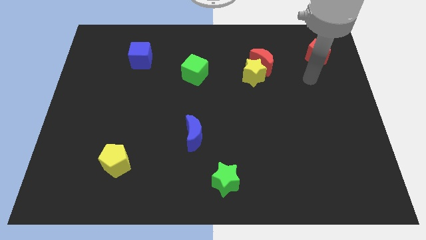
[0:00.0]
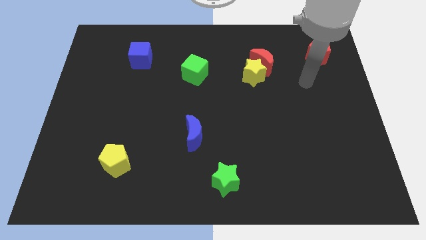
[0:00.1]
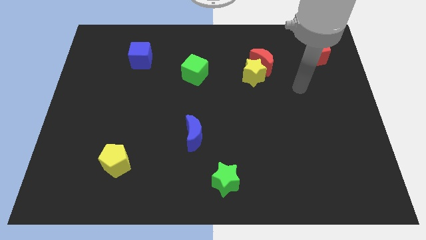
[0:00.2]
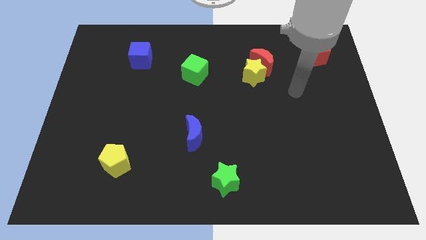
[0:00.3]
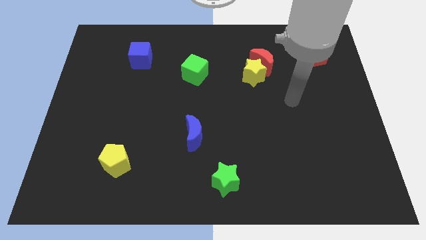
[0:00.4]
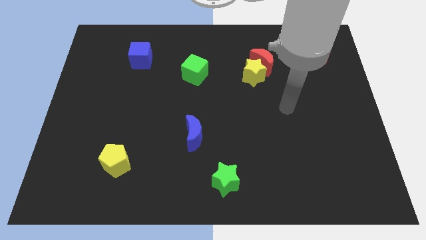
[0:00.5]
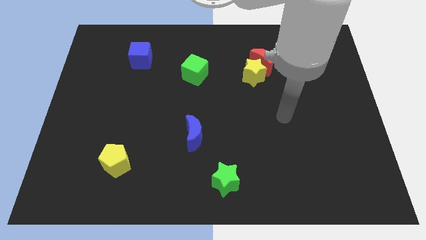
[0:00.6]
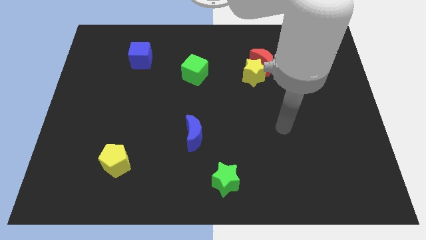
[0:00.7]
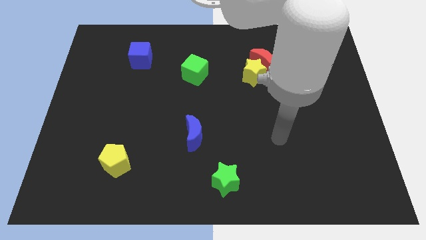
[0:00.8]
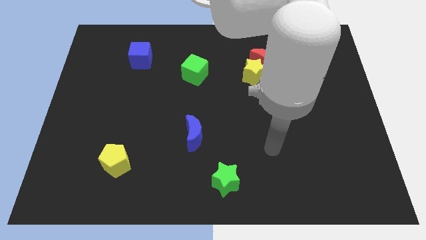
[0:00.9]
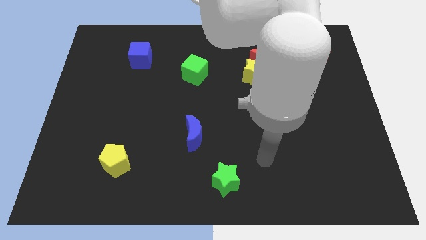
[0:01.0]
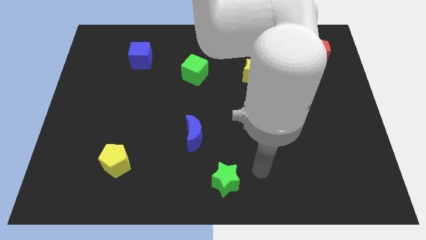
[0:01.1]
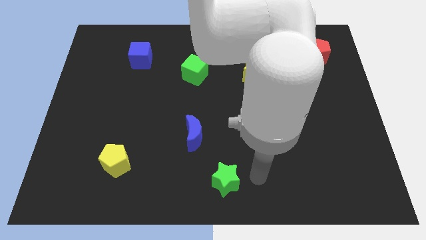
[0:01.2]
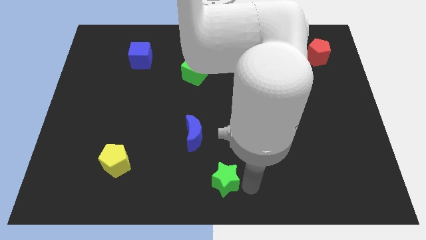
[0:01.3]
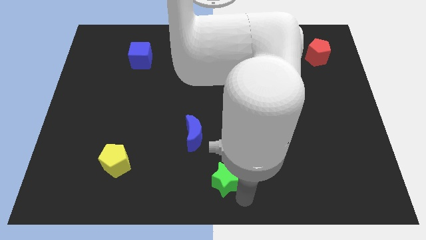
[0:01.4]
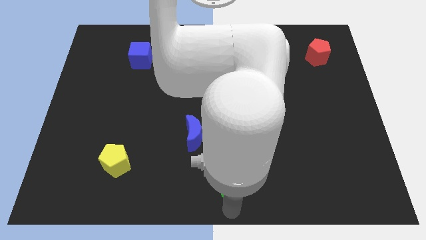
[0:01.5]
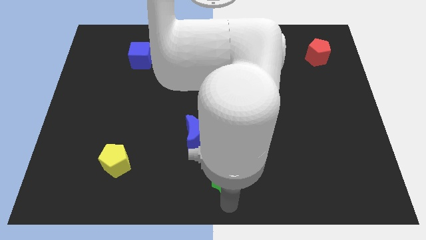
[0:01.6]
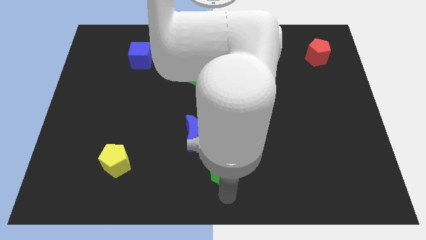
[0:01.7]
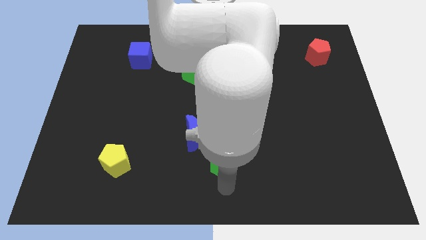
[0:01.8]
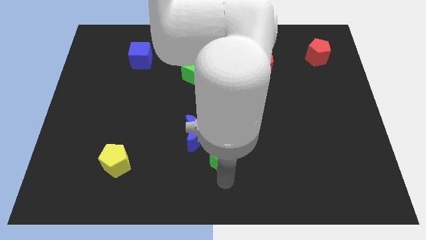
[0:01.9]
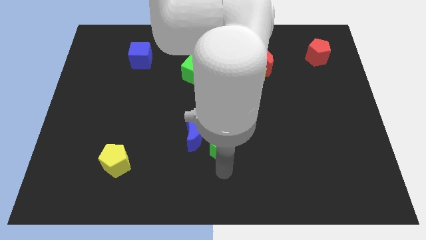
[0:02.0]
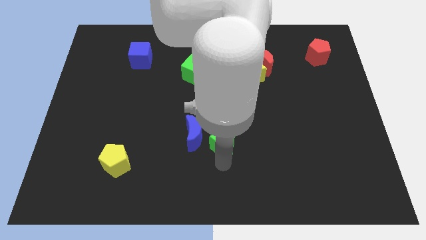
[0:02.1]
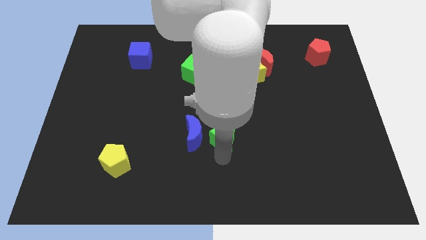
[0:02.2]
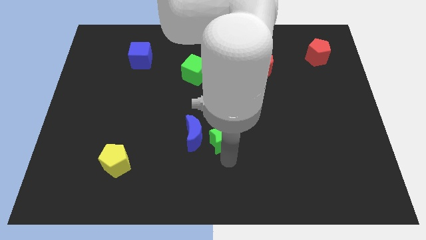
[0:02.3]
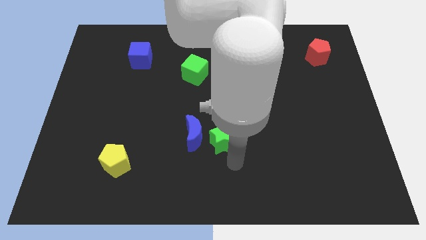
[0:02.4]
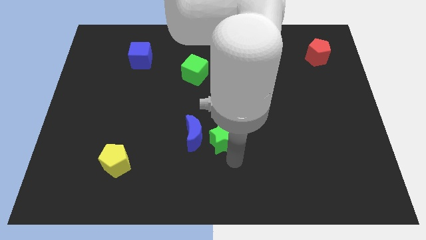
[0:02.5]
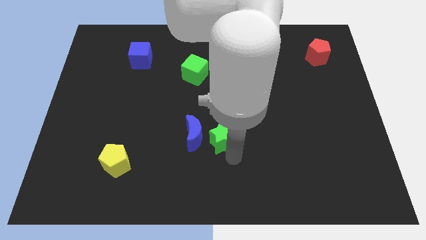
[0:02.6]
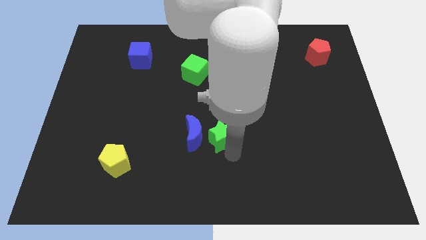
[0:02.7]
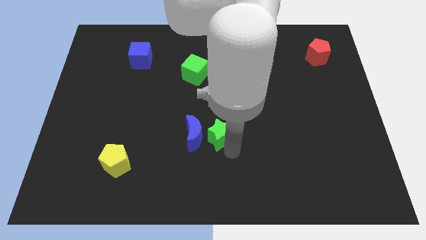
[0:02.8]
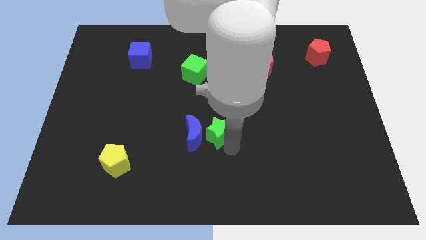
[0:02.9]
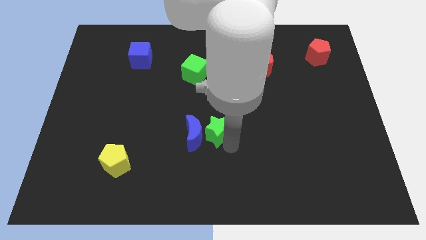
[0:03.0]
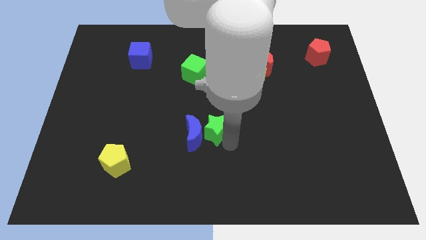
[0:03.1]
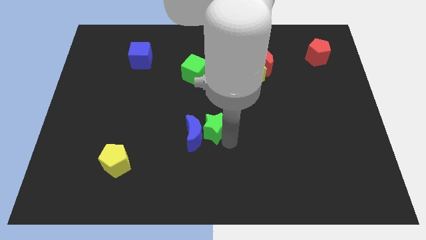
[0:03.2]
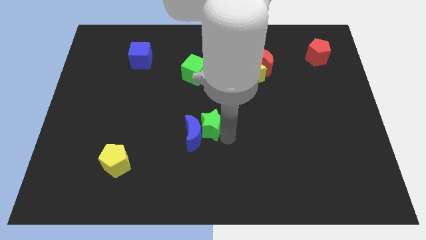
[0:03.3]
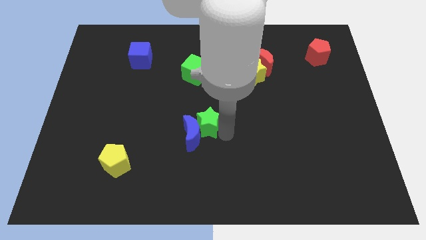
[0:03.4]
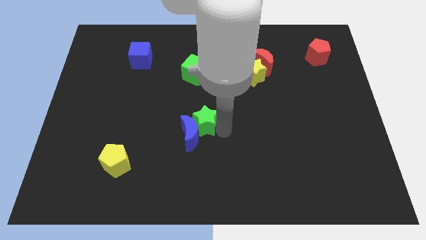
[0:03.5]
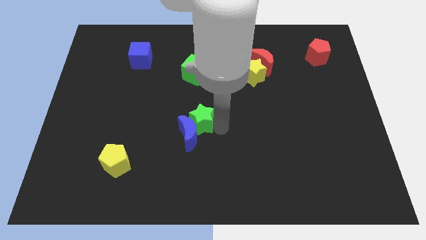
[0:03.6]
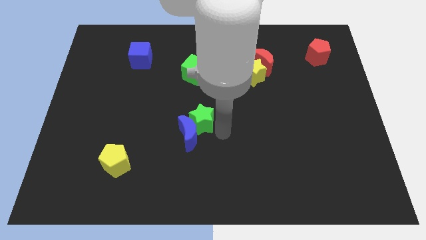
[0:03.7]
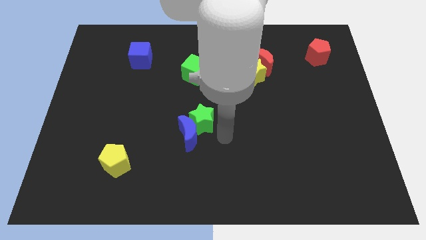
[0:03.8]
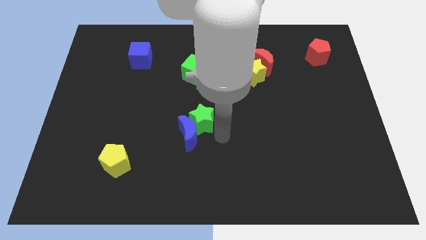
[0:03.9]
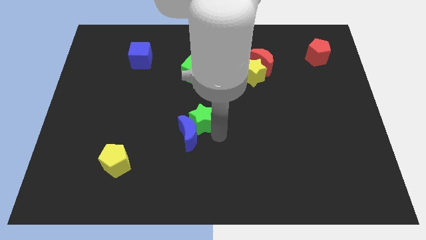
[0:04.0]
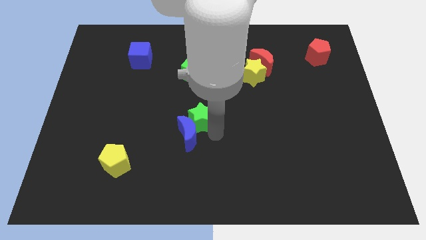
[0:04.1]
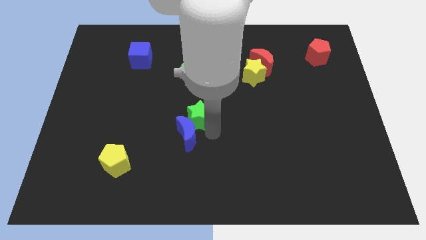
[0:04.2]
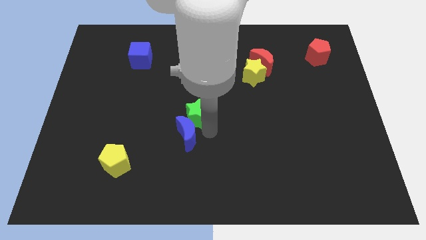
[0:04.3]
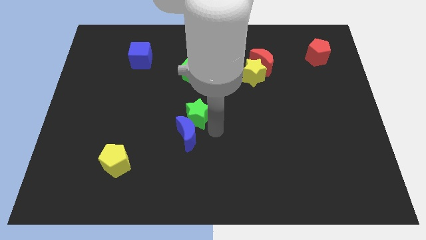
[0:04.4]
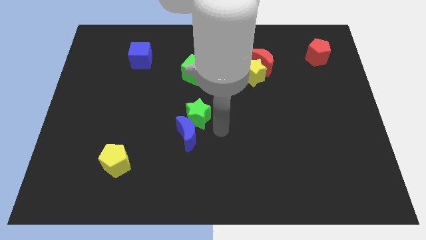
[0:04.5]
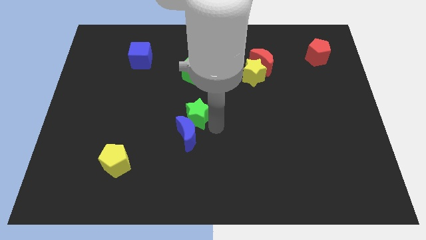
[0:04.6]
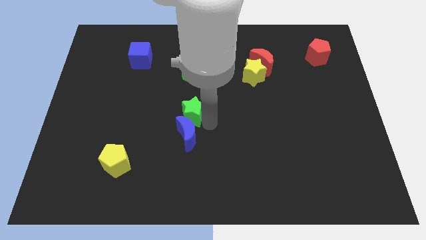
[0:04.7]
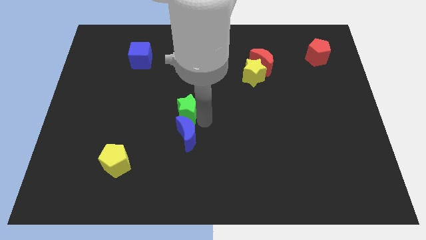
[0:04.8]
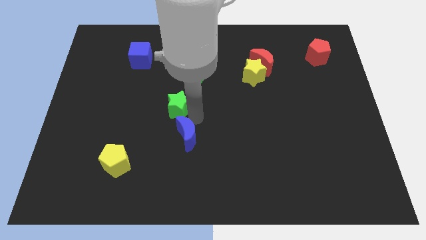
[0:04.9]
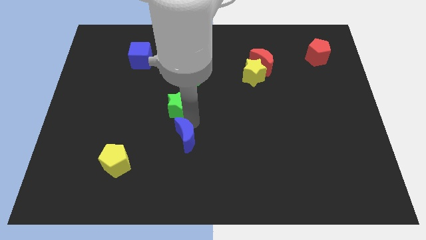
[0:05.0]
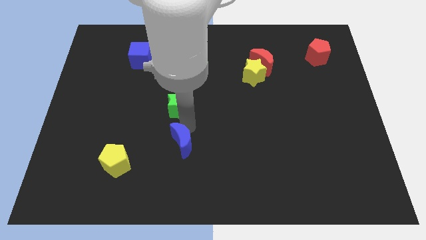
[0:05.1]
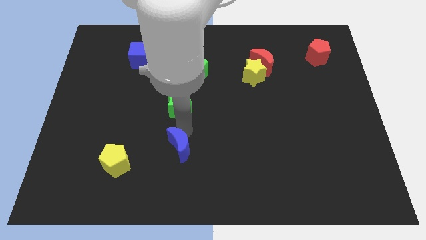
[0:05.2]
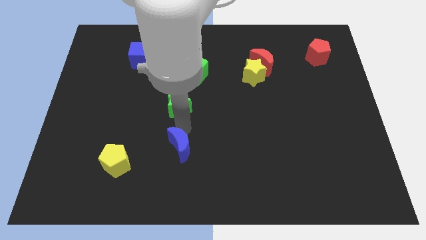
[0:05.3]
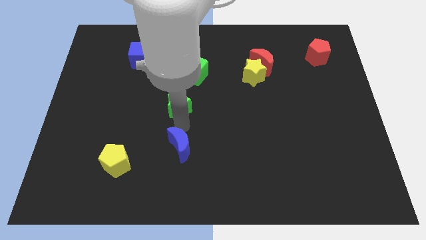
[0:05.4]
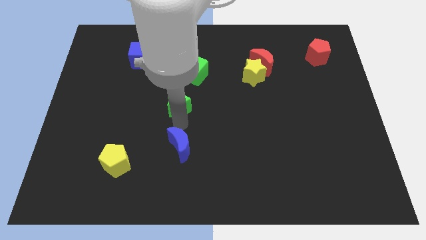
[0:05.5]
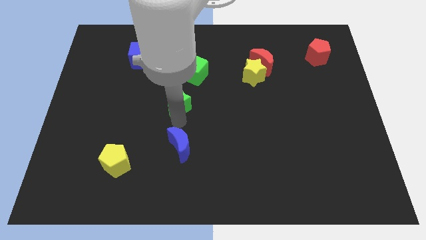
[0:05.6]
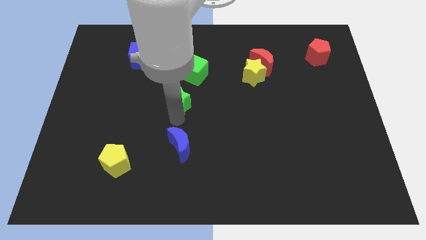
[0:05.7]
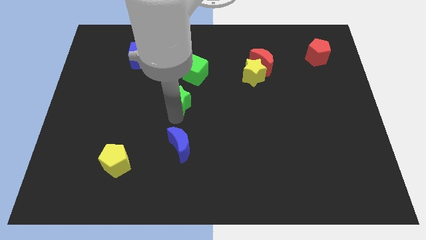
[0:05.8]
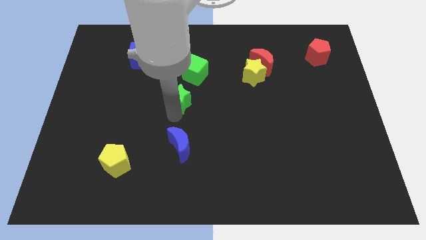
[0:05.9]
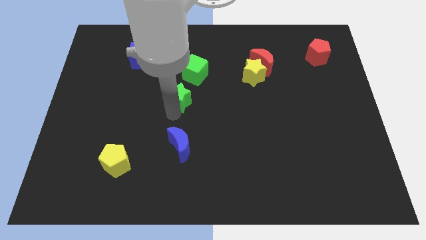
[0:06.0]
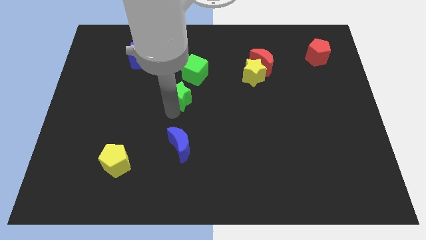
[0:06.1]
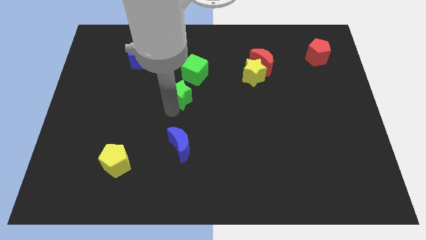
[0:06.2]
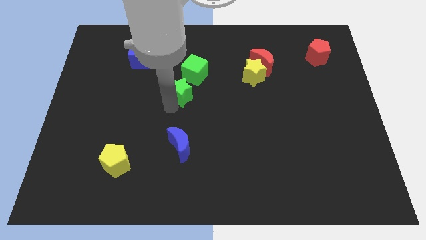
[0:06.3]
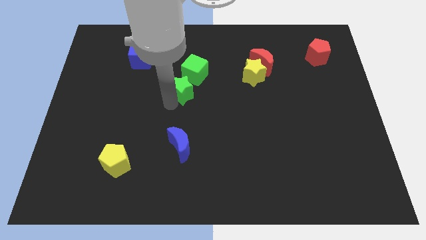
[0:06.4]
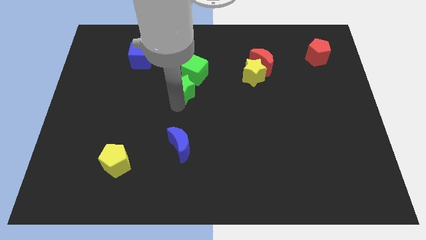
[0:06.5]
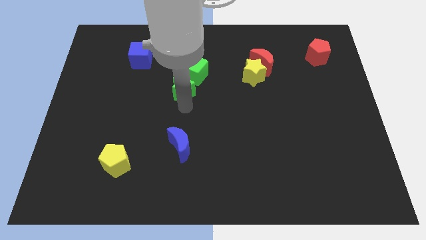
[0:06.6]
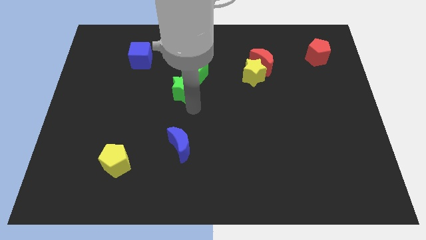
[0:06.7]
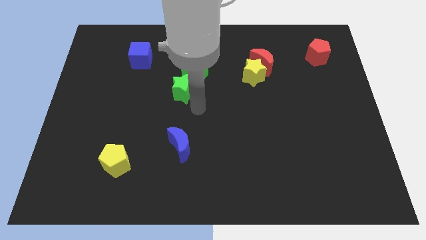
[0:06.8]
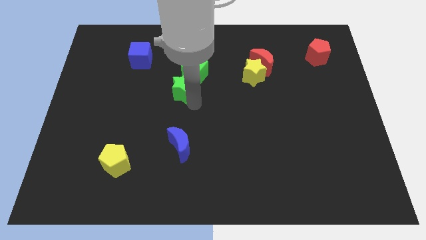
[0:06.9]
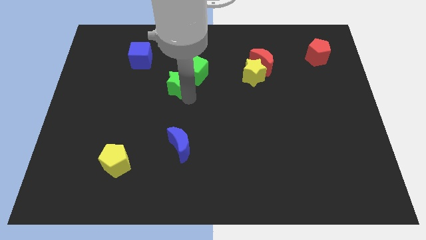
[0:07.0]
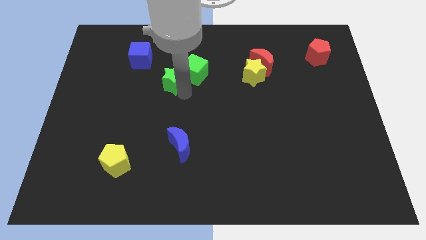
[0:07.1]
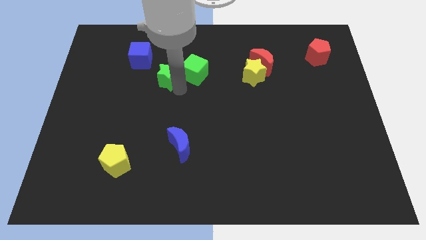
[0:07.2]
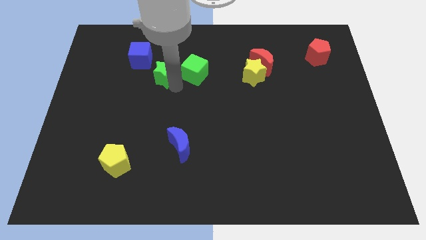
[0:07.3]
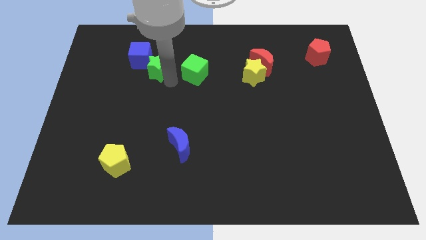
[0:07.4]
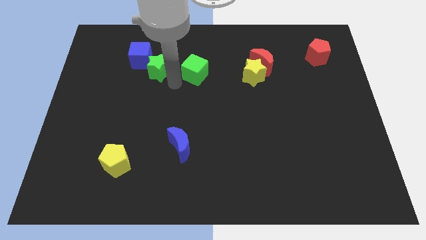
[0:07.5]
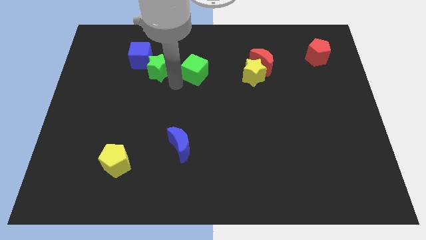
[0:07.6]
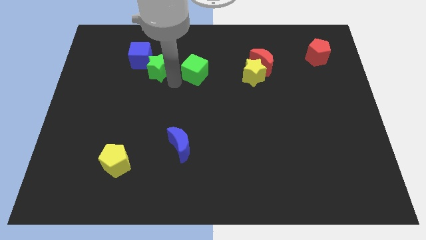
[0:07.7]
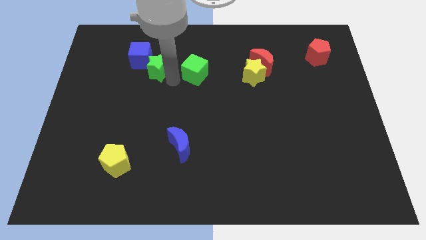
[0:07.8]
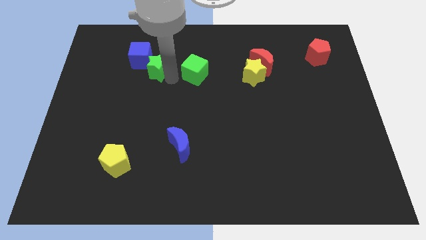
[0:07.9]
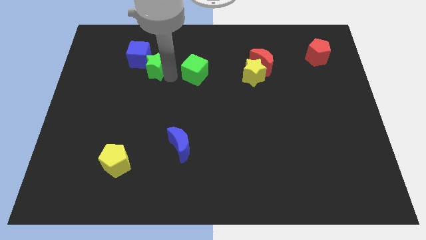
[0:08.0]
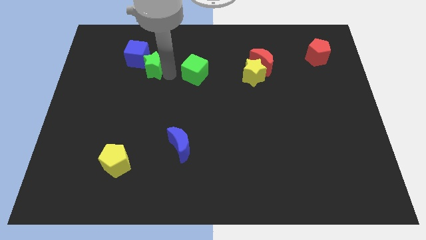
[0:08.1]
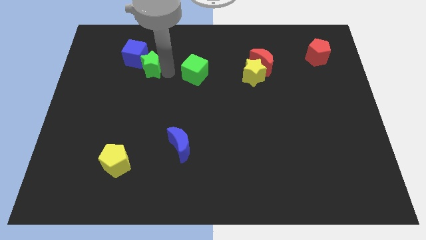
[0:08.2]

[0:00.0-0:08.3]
slide the green star close to the blue cube
